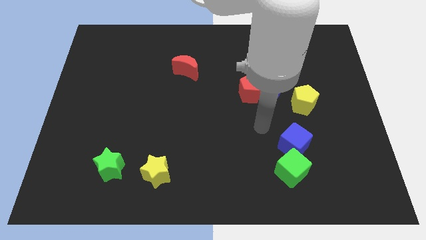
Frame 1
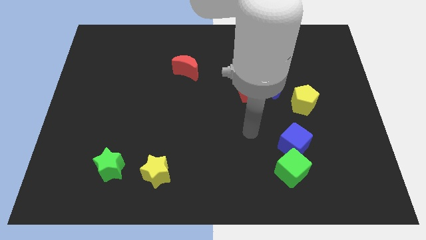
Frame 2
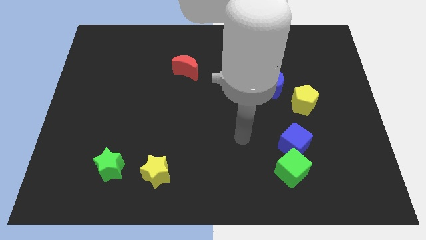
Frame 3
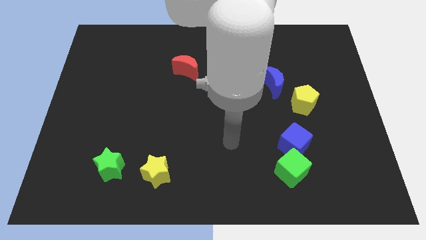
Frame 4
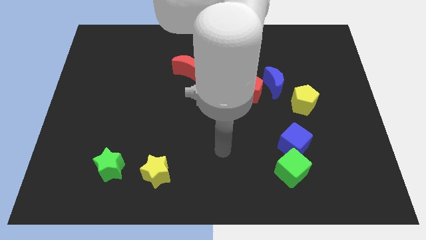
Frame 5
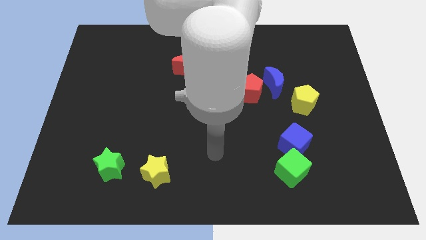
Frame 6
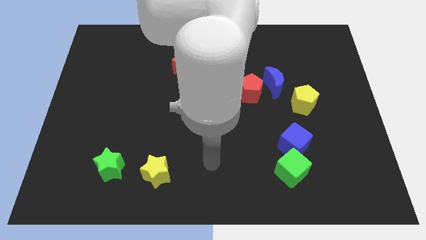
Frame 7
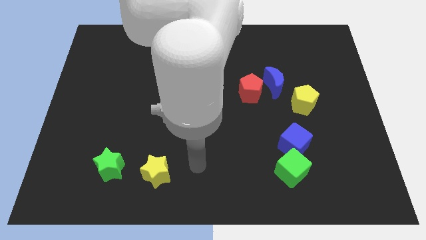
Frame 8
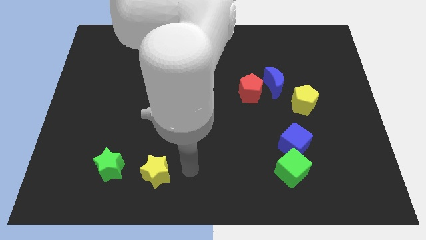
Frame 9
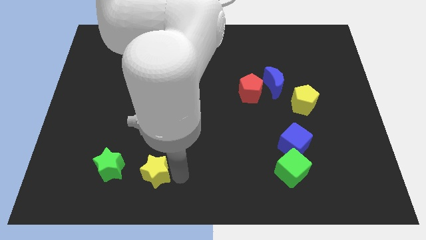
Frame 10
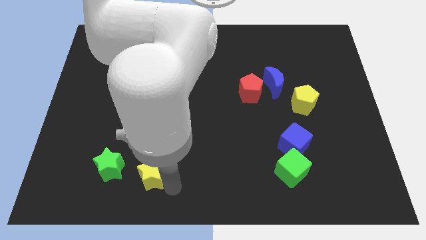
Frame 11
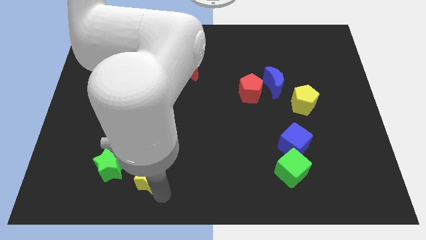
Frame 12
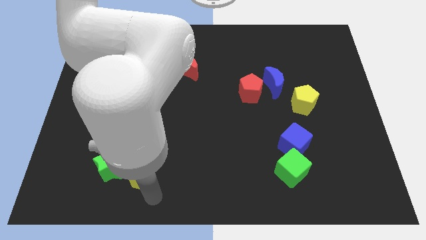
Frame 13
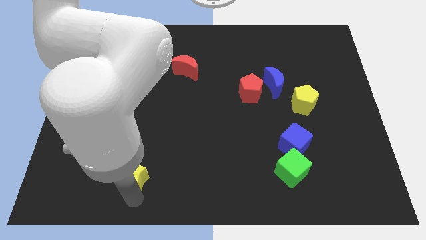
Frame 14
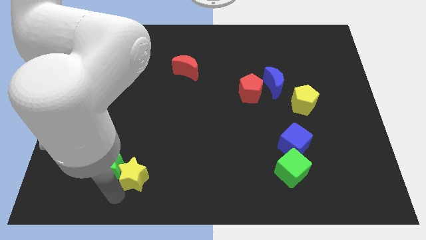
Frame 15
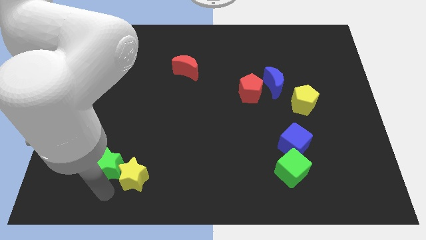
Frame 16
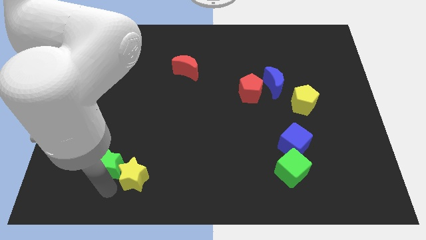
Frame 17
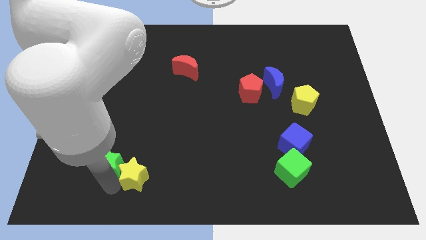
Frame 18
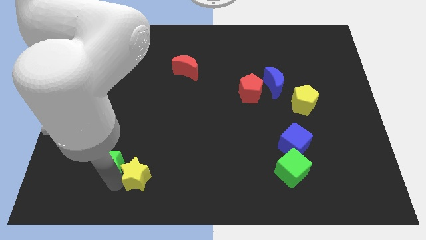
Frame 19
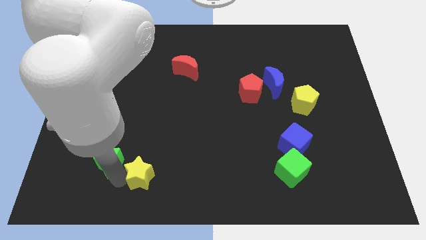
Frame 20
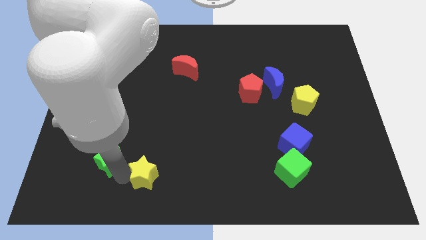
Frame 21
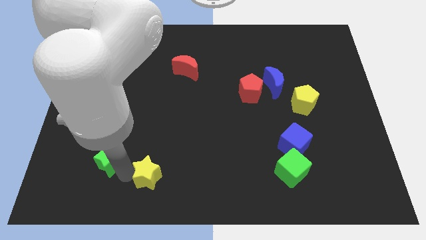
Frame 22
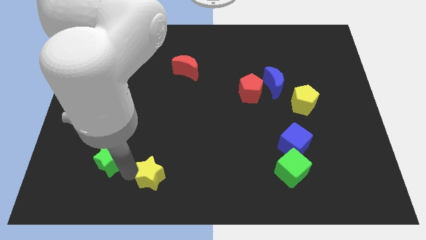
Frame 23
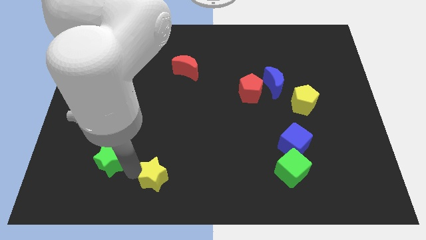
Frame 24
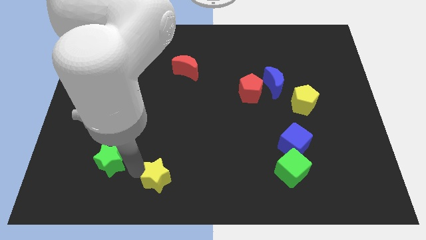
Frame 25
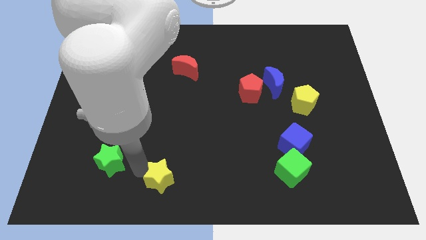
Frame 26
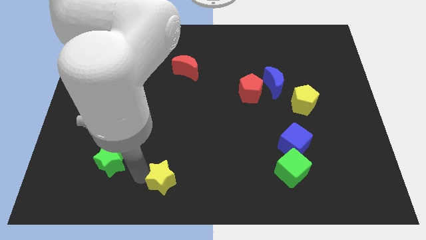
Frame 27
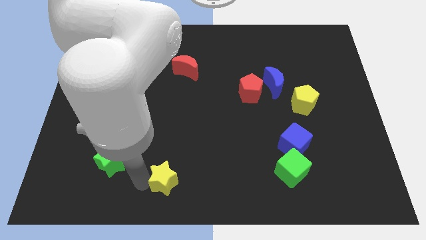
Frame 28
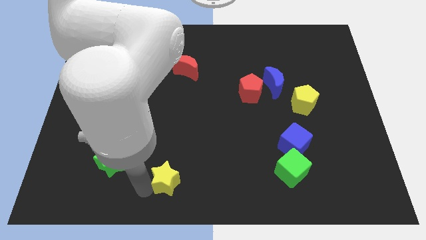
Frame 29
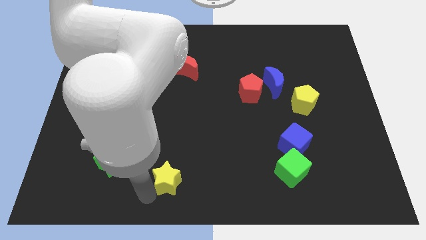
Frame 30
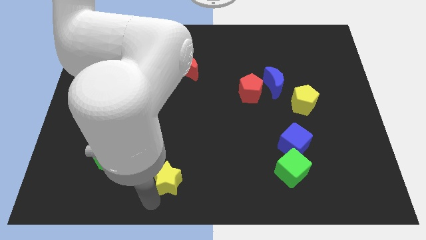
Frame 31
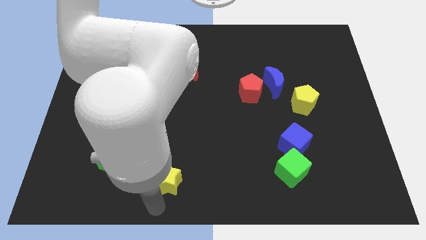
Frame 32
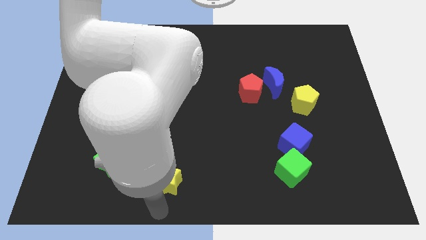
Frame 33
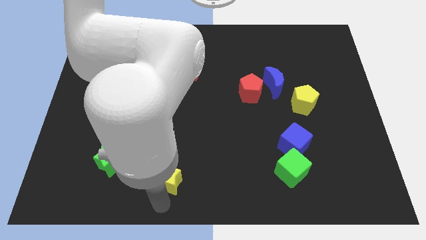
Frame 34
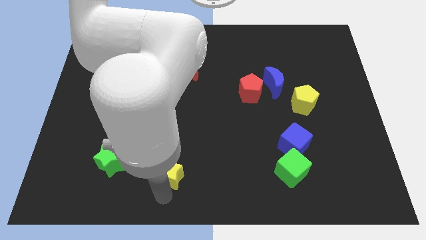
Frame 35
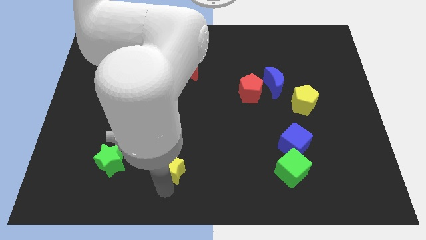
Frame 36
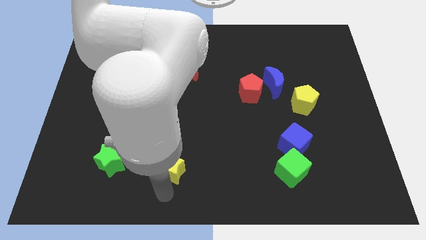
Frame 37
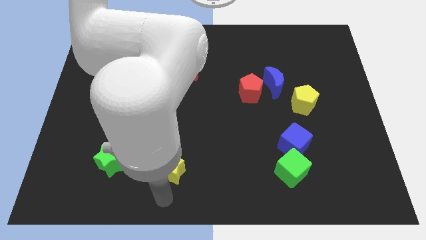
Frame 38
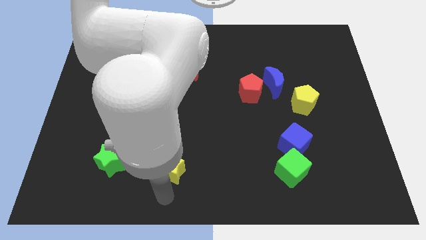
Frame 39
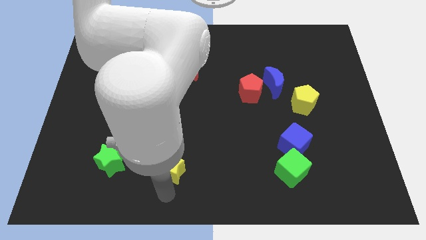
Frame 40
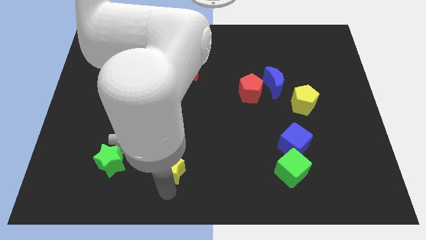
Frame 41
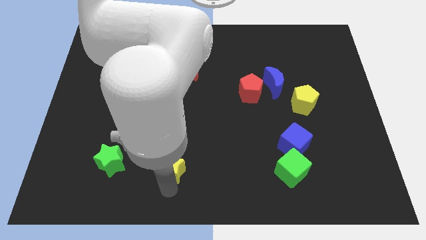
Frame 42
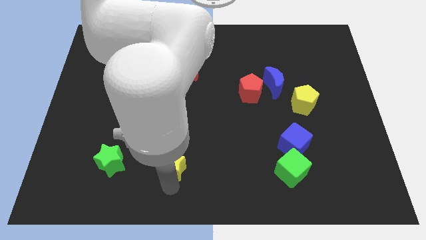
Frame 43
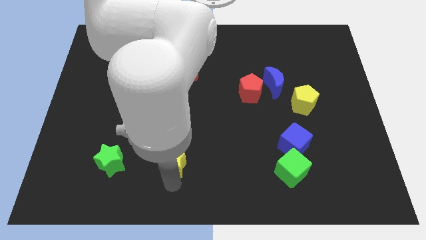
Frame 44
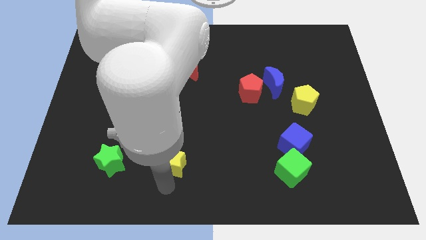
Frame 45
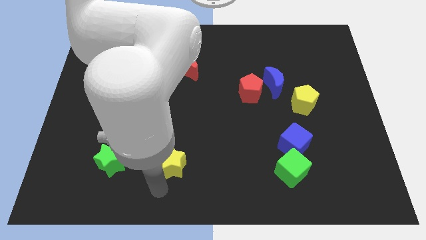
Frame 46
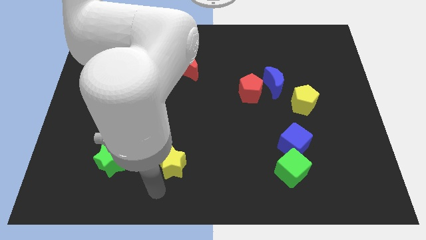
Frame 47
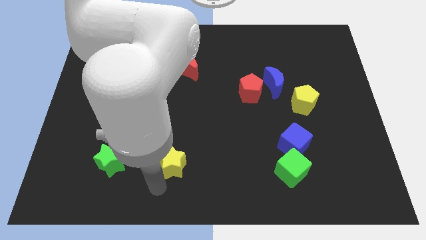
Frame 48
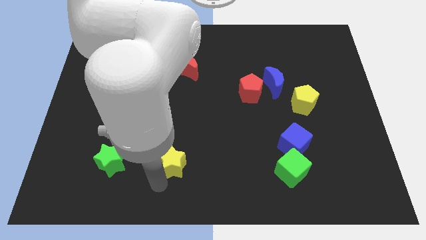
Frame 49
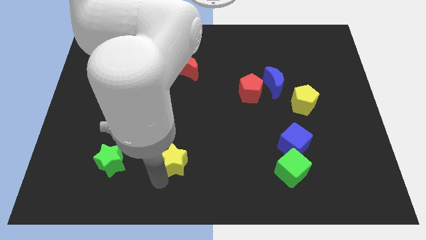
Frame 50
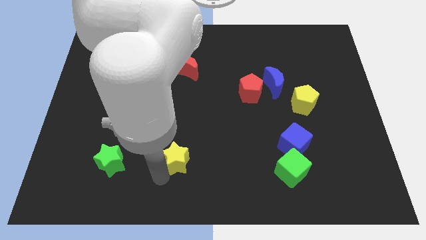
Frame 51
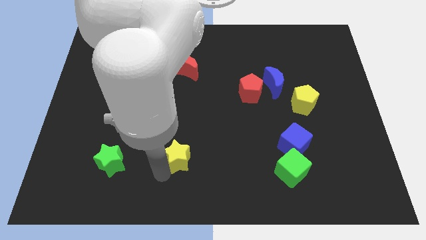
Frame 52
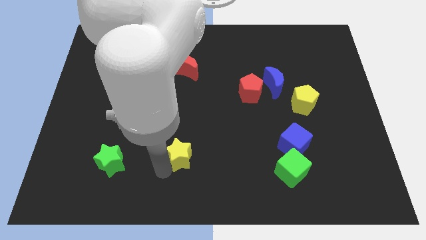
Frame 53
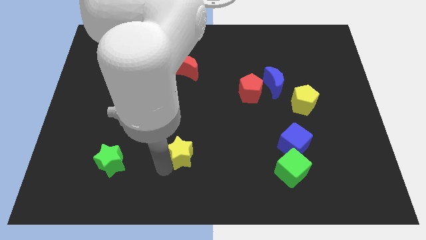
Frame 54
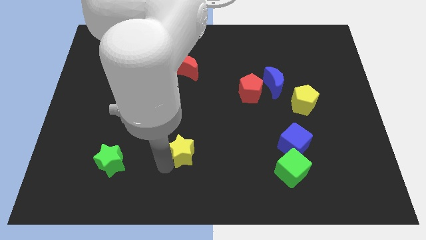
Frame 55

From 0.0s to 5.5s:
slide the yellow star slightly diagonally upwards and to the right

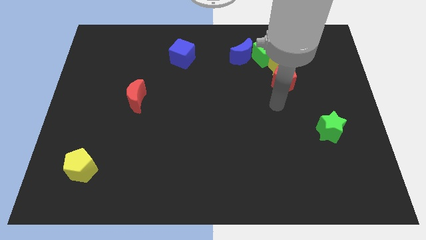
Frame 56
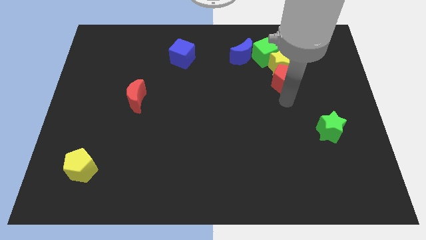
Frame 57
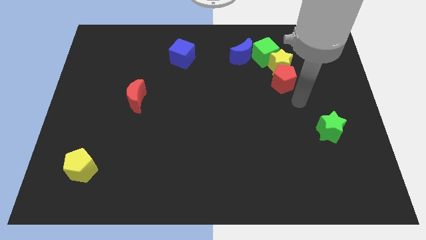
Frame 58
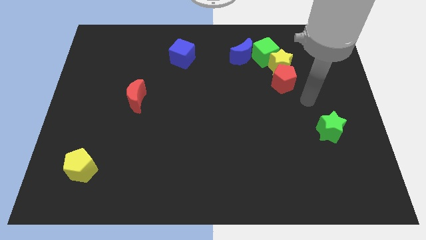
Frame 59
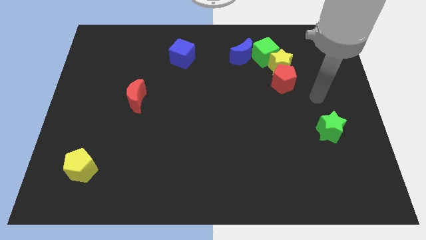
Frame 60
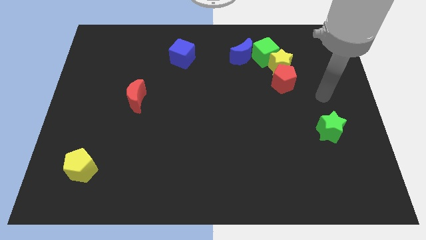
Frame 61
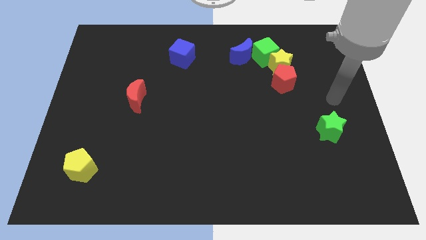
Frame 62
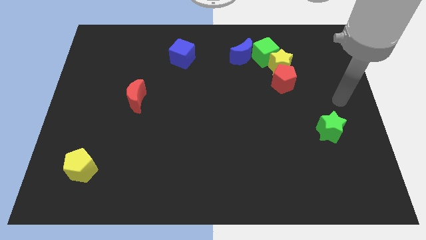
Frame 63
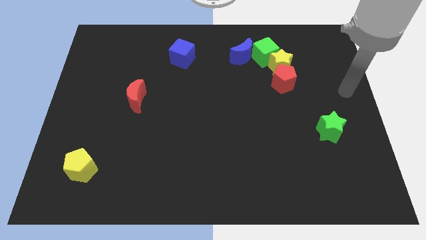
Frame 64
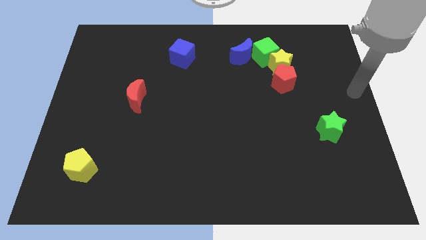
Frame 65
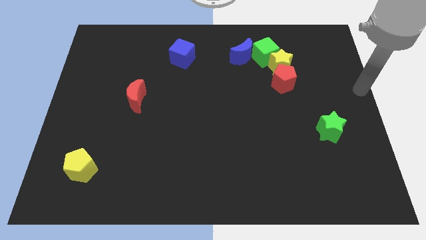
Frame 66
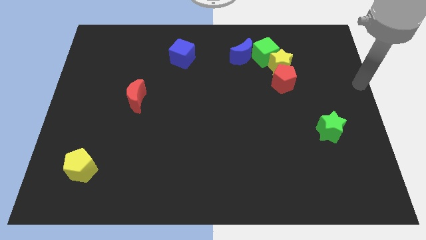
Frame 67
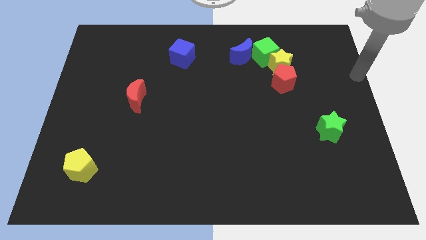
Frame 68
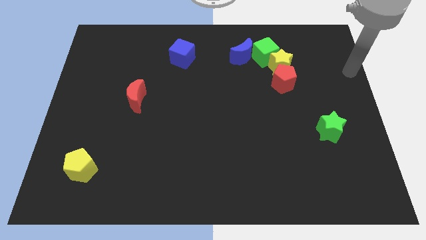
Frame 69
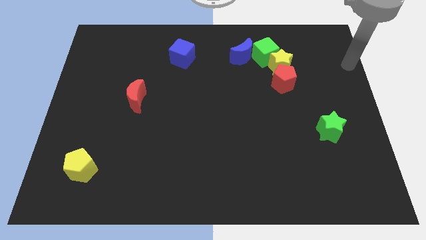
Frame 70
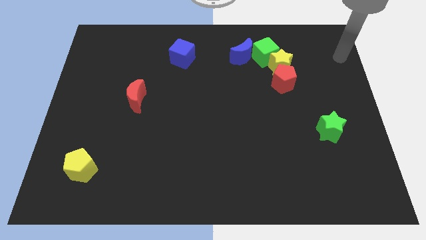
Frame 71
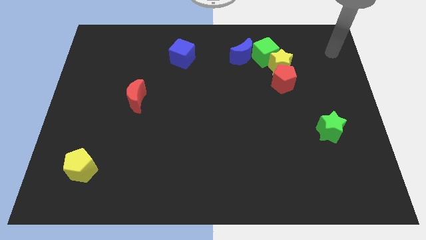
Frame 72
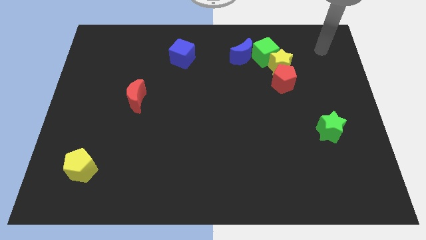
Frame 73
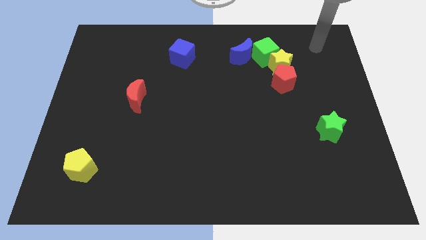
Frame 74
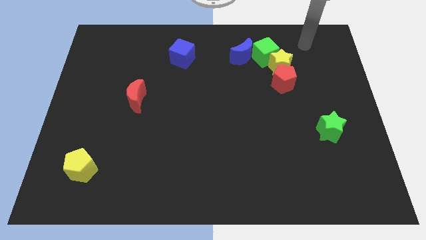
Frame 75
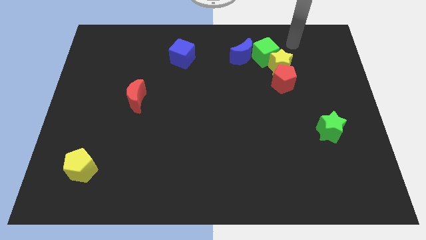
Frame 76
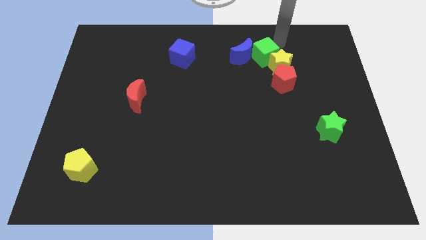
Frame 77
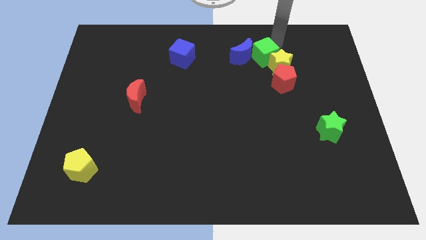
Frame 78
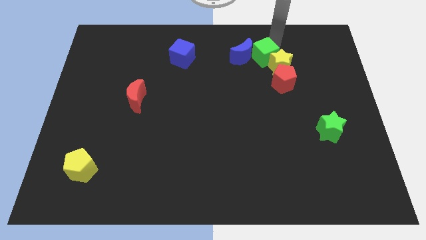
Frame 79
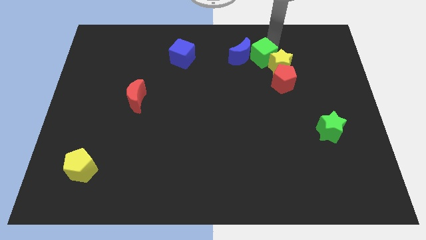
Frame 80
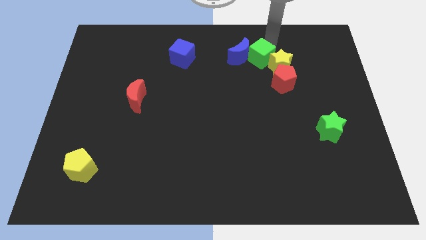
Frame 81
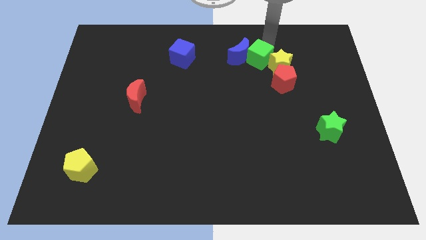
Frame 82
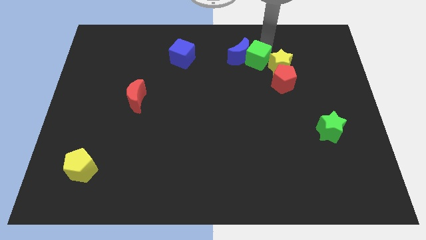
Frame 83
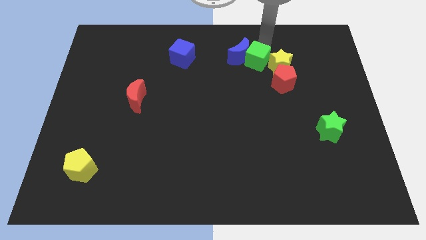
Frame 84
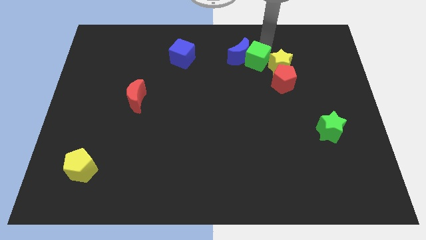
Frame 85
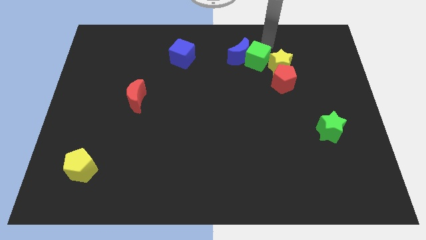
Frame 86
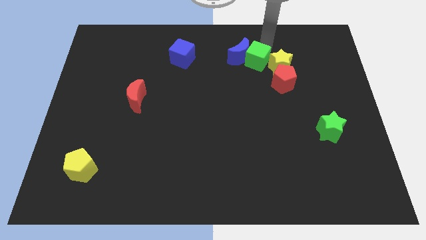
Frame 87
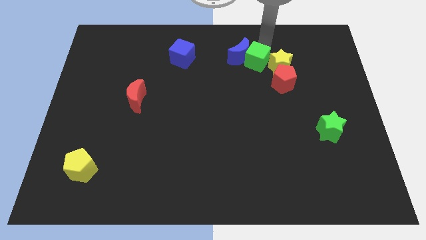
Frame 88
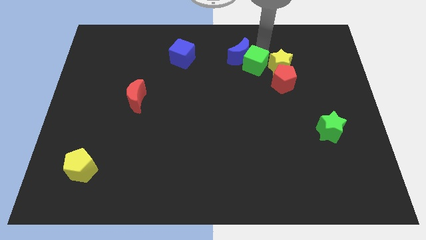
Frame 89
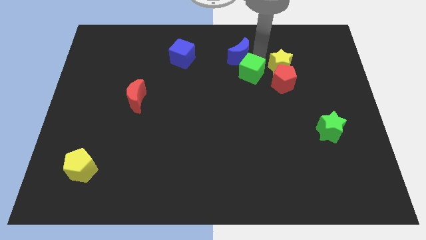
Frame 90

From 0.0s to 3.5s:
slide the green cube somewhat down and then left
